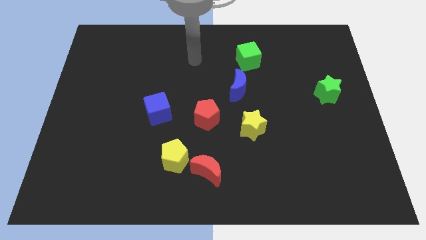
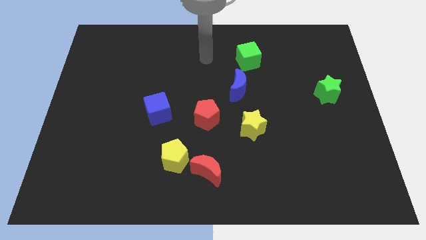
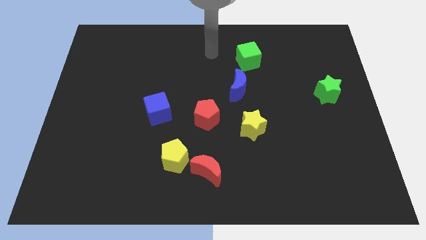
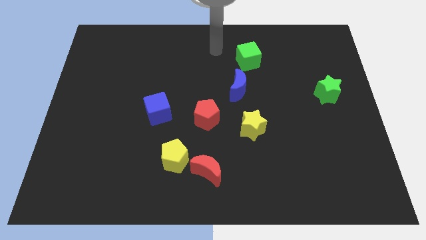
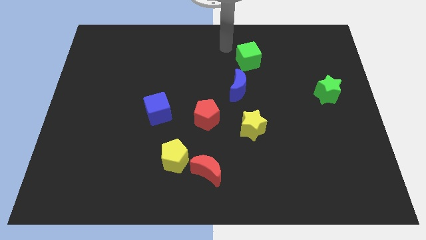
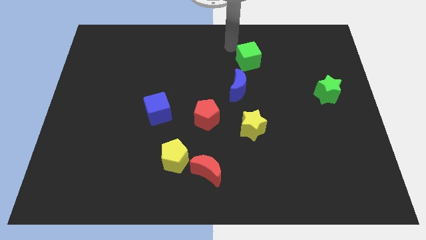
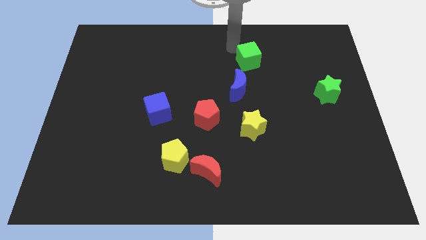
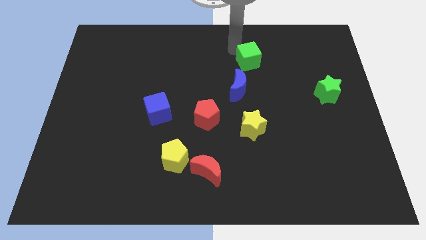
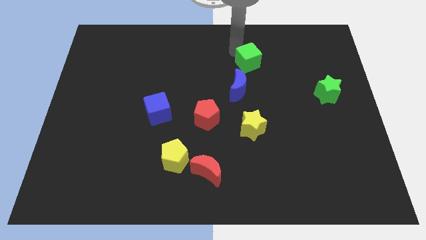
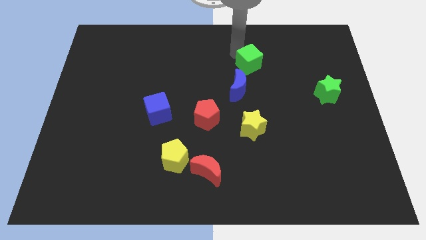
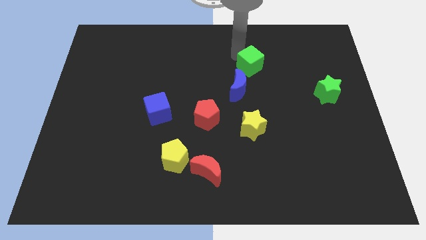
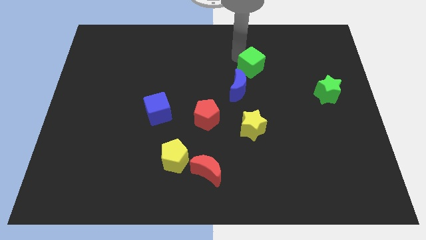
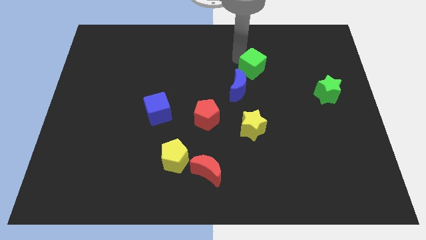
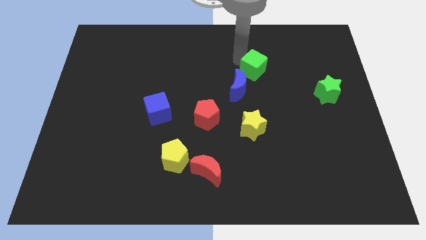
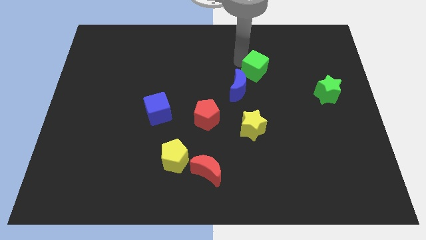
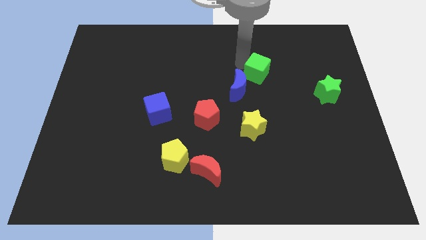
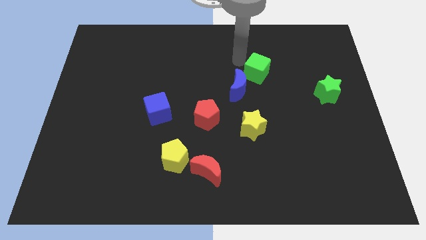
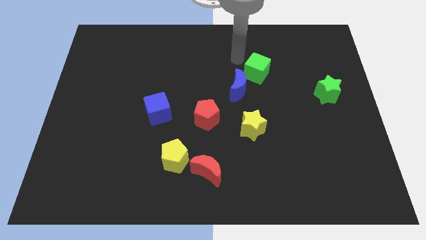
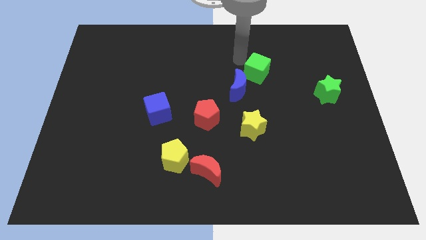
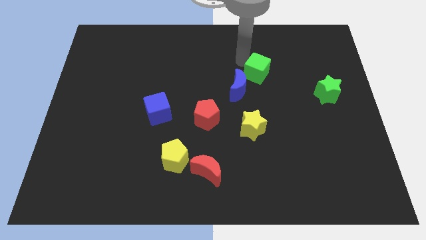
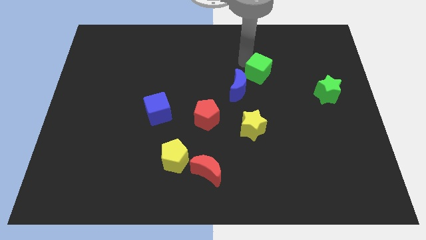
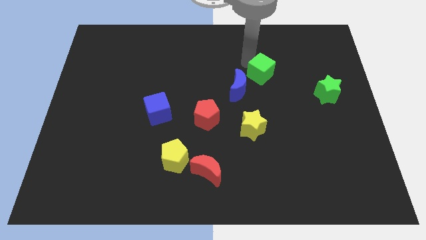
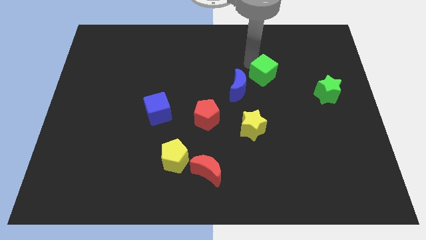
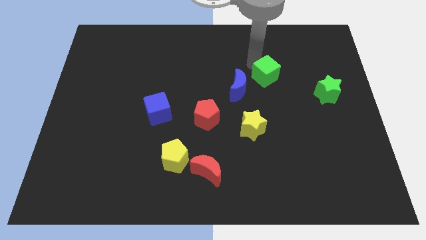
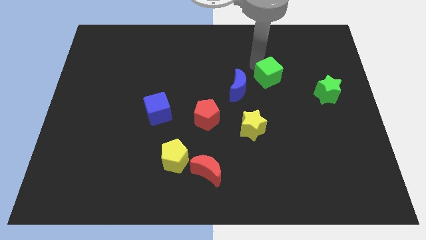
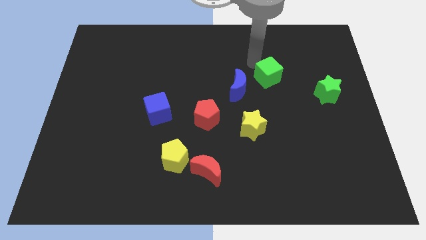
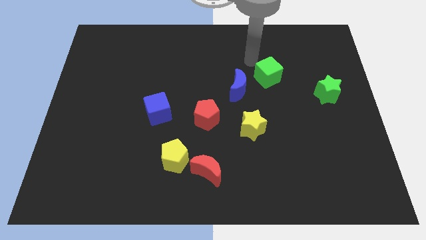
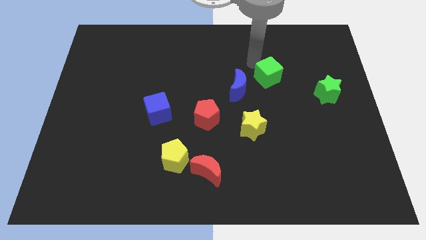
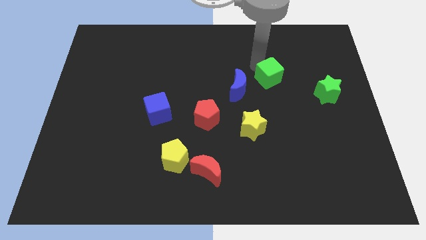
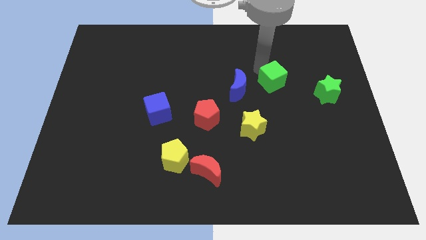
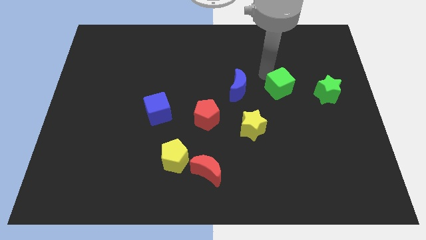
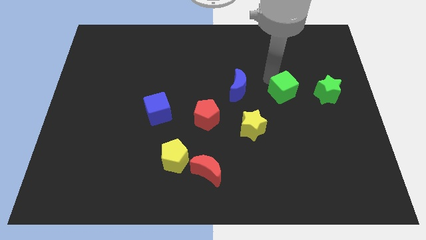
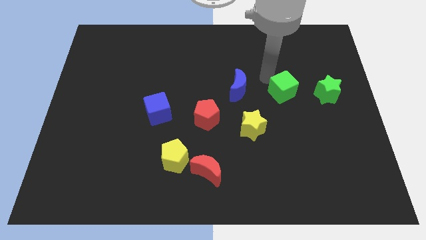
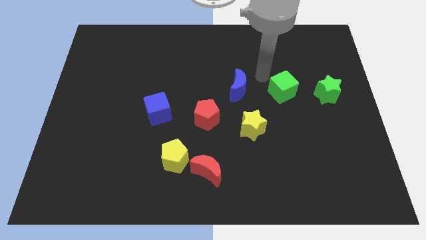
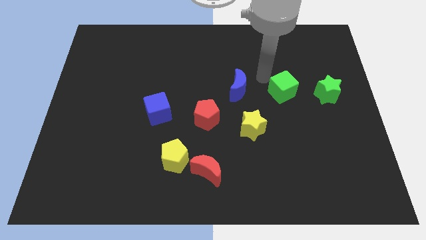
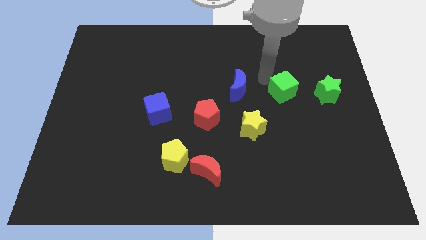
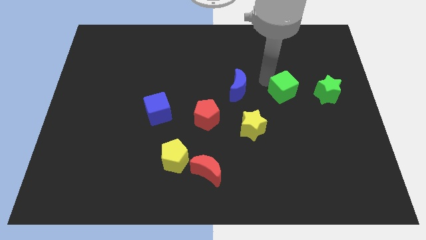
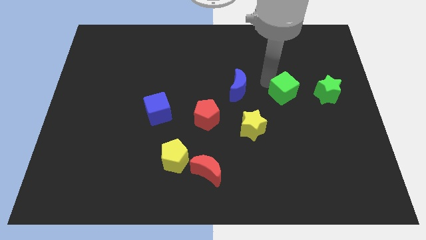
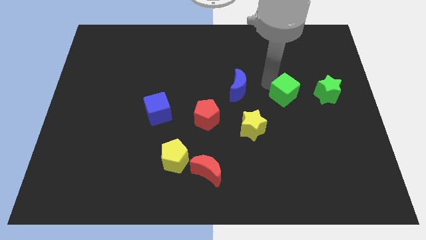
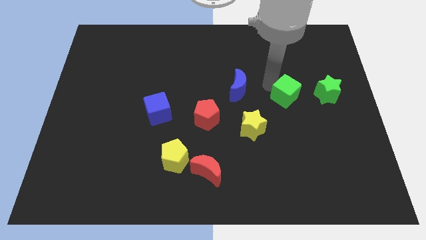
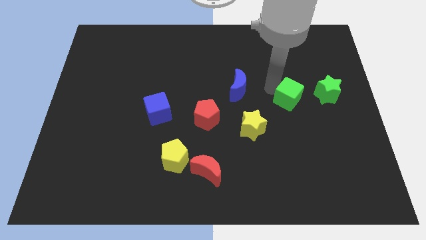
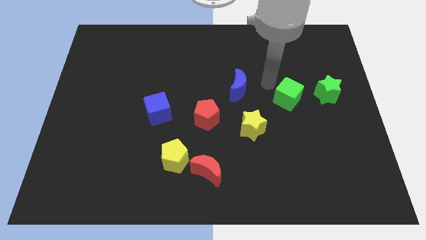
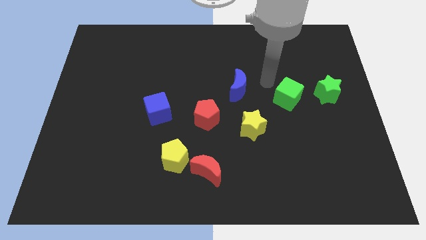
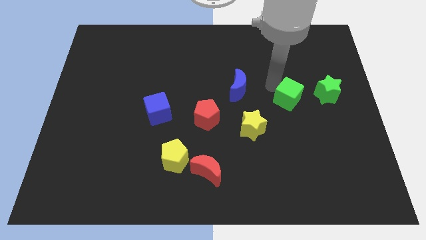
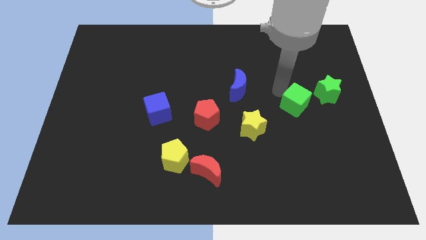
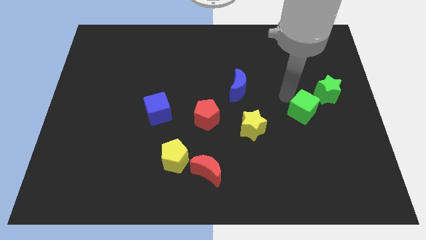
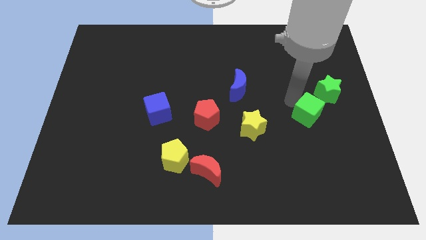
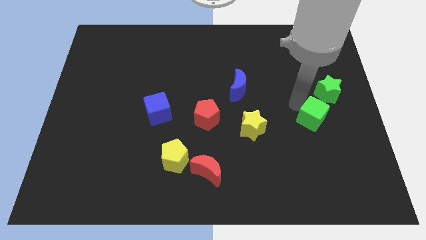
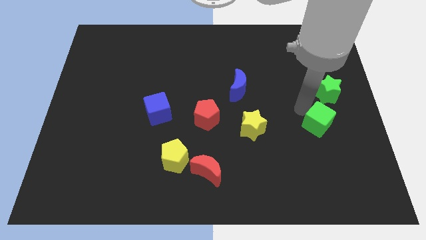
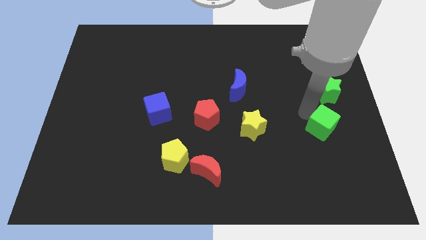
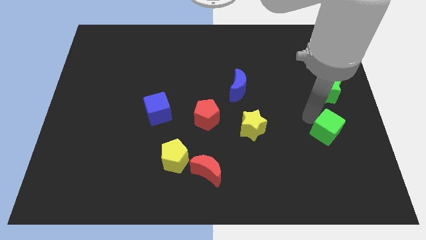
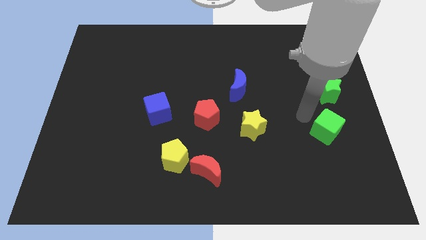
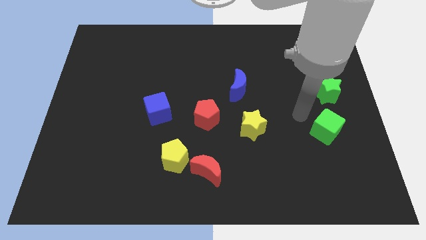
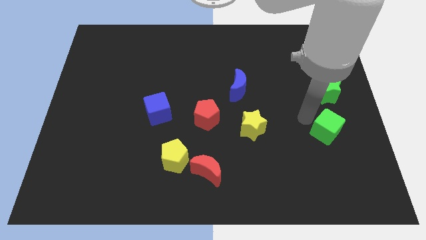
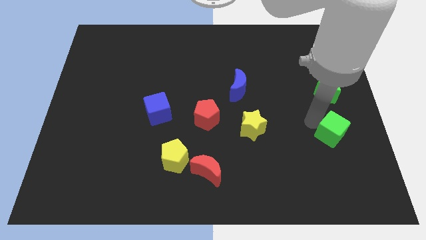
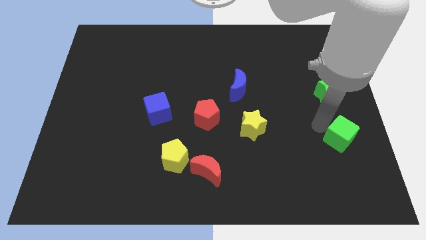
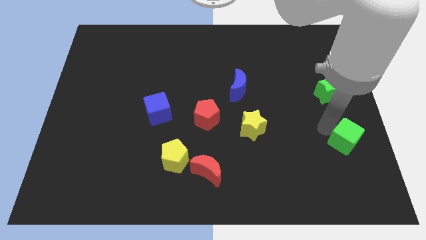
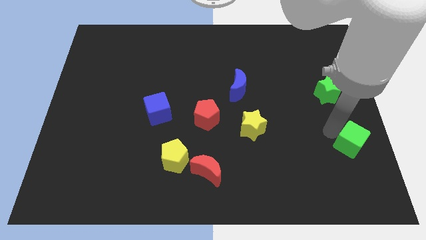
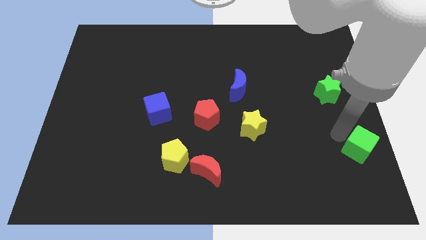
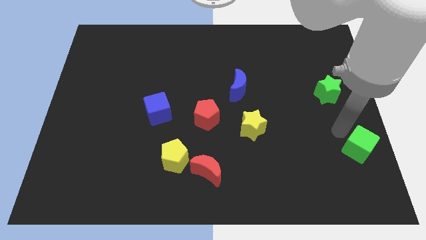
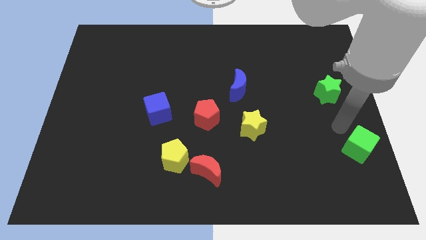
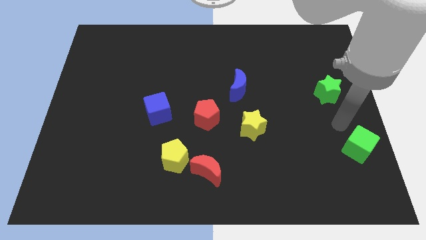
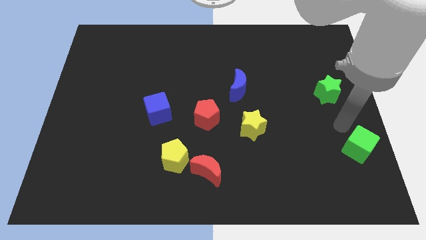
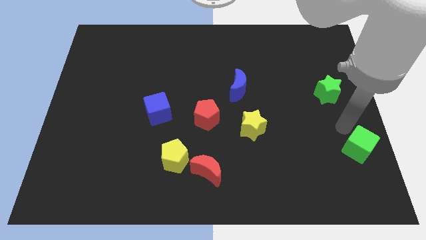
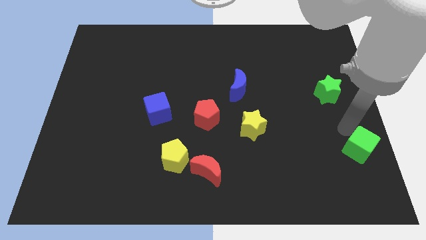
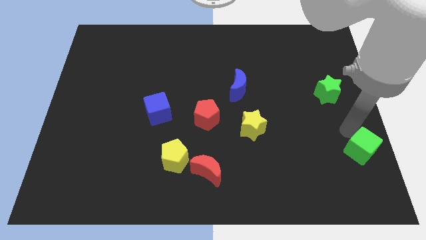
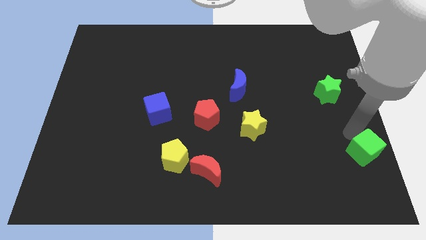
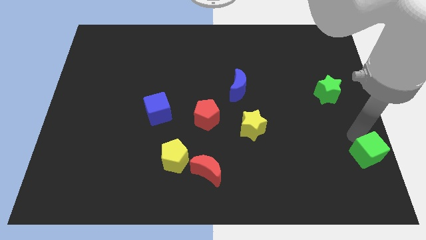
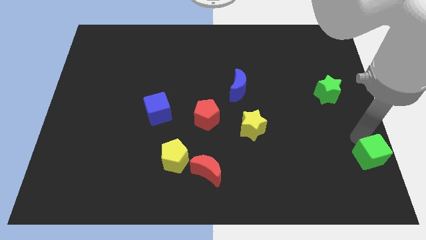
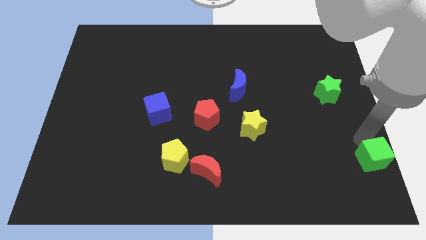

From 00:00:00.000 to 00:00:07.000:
push the green cube to the lower right corner
